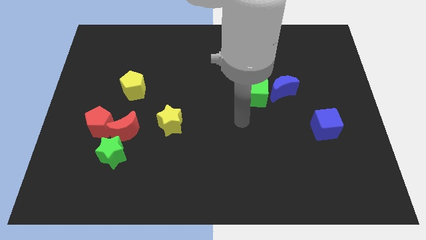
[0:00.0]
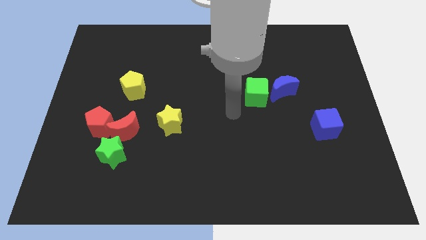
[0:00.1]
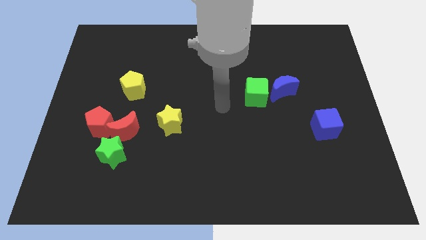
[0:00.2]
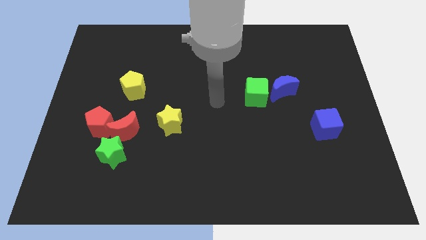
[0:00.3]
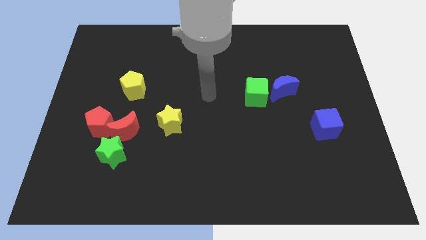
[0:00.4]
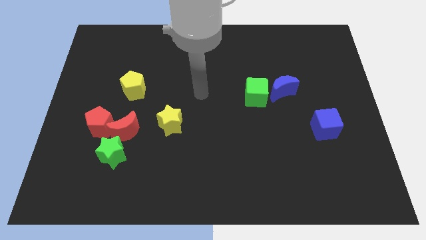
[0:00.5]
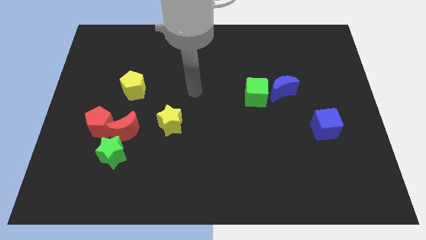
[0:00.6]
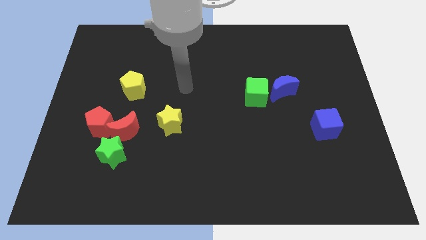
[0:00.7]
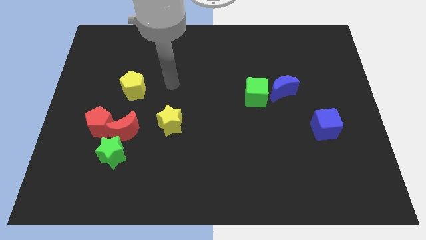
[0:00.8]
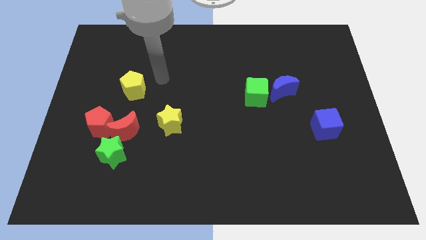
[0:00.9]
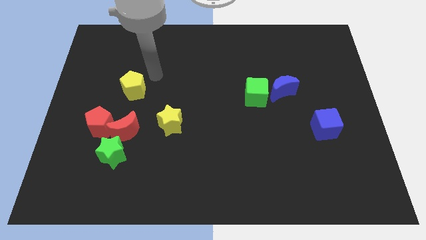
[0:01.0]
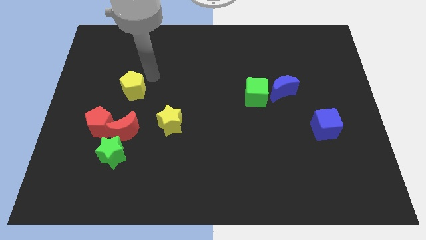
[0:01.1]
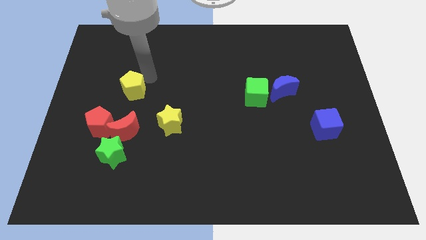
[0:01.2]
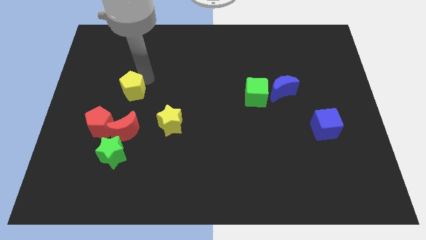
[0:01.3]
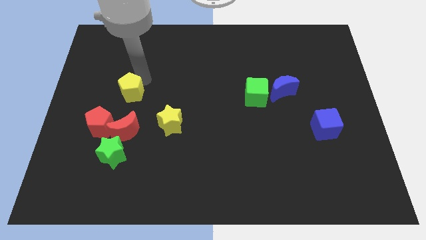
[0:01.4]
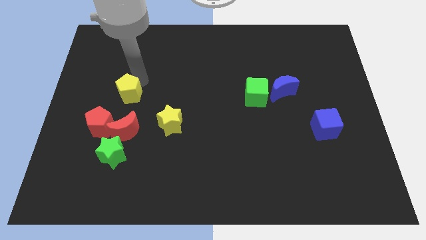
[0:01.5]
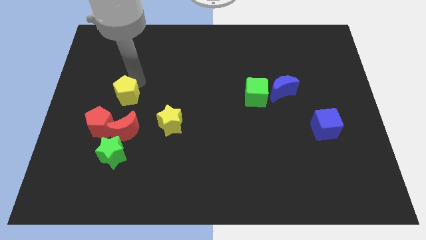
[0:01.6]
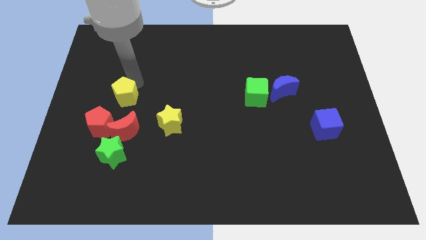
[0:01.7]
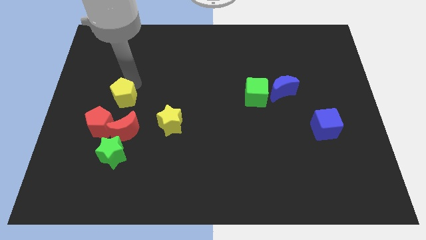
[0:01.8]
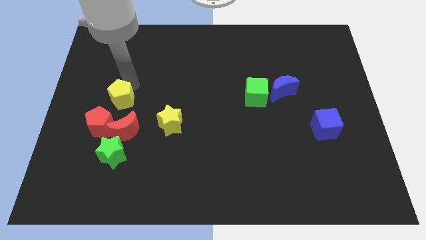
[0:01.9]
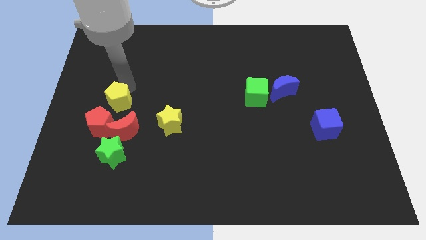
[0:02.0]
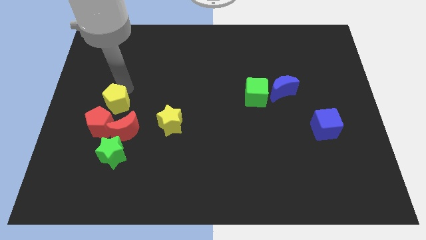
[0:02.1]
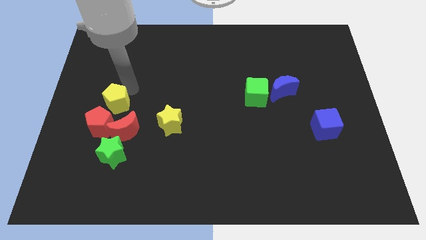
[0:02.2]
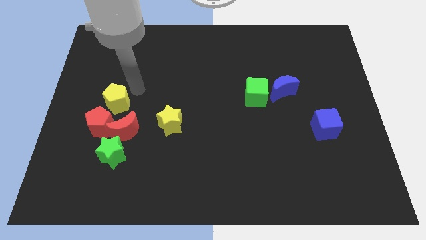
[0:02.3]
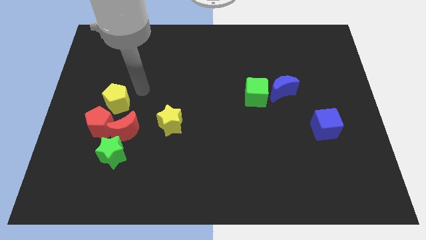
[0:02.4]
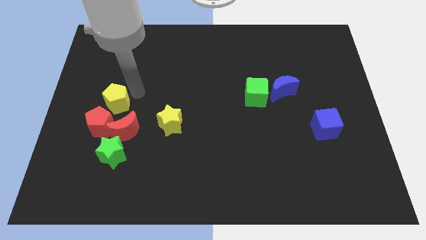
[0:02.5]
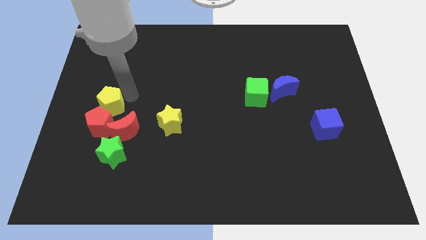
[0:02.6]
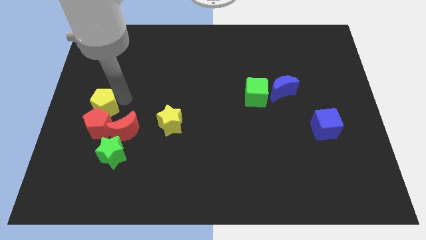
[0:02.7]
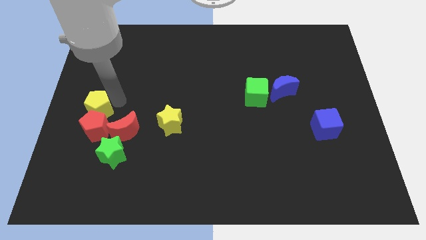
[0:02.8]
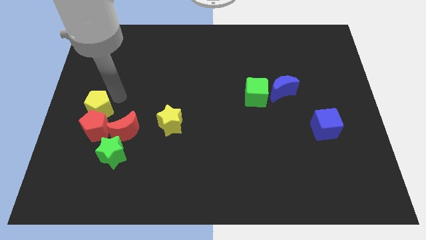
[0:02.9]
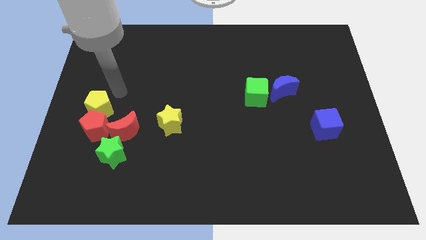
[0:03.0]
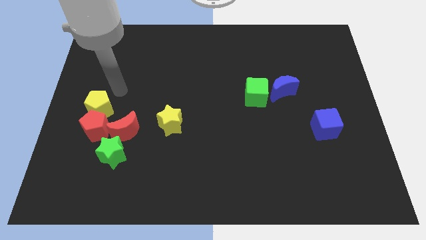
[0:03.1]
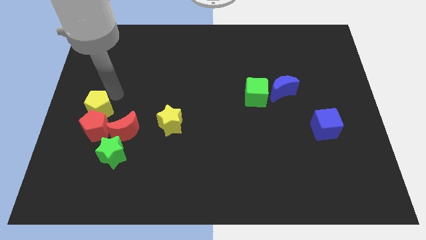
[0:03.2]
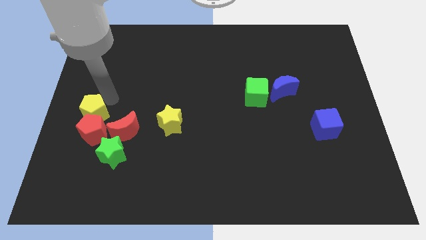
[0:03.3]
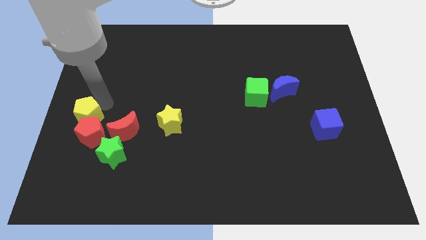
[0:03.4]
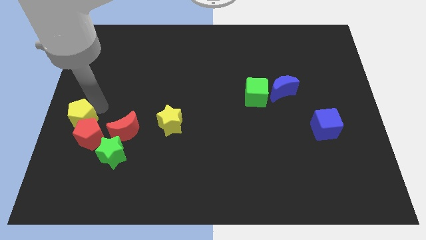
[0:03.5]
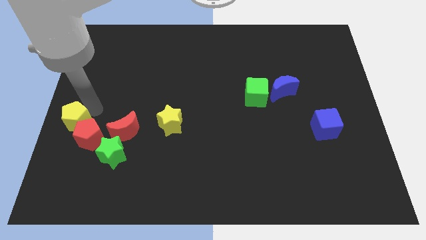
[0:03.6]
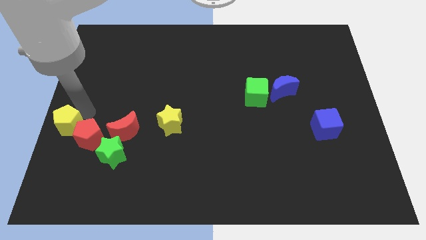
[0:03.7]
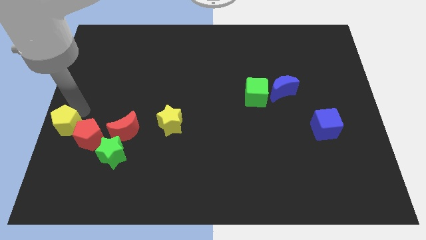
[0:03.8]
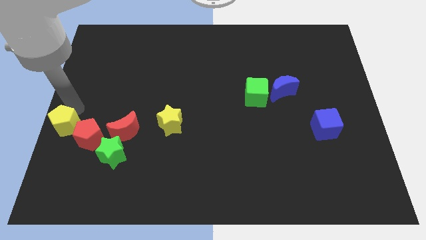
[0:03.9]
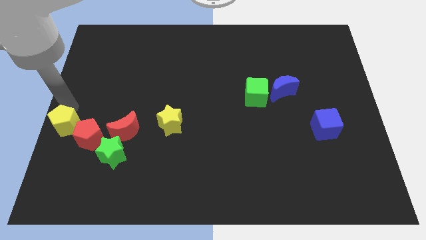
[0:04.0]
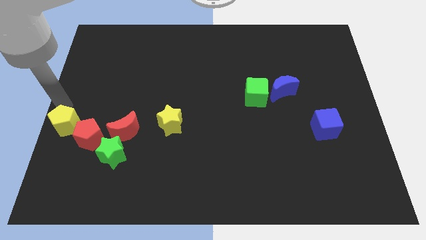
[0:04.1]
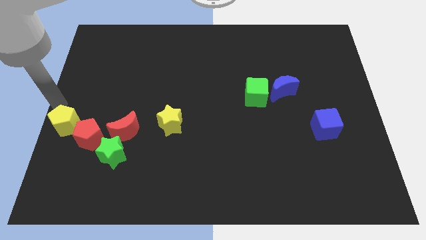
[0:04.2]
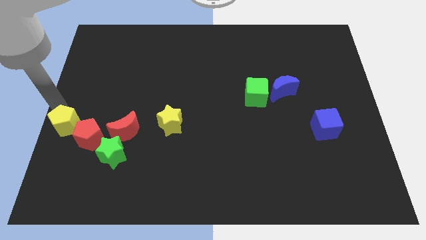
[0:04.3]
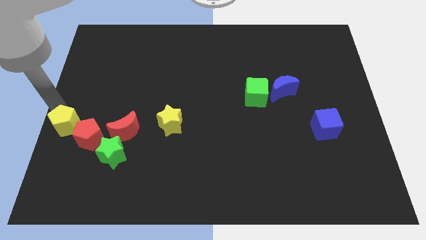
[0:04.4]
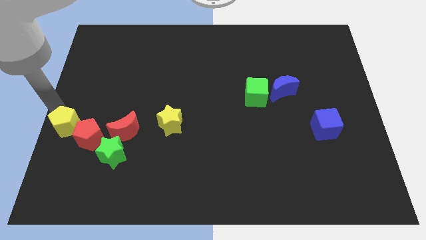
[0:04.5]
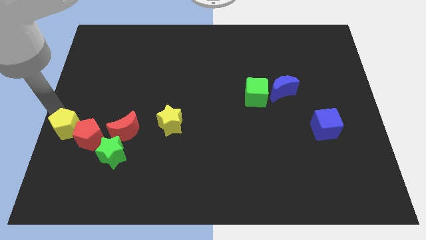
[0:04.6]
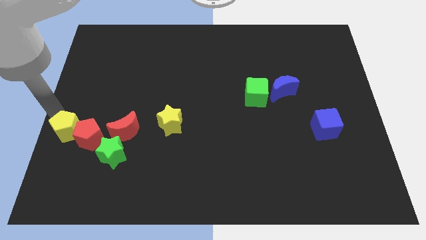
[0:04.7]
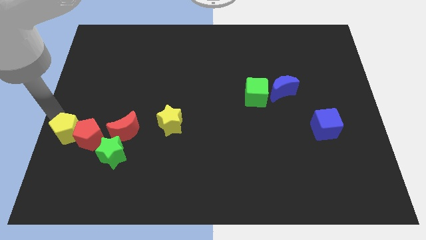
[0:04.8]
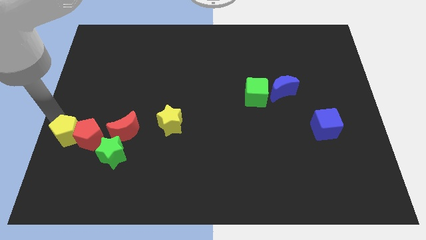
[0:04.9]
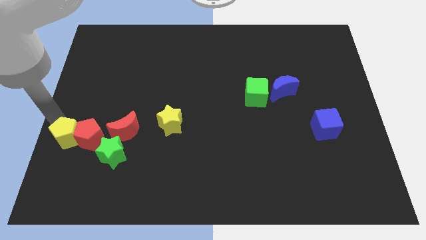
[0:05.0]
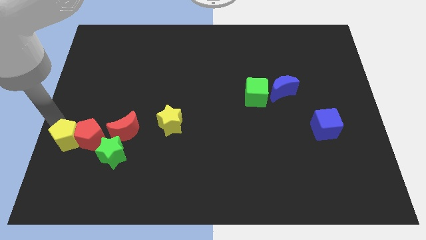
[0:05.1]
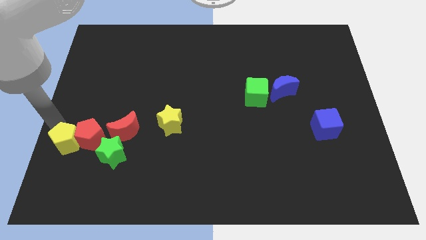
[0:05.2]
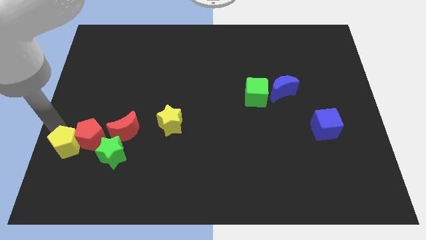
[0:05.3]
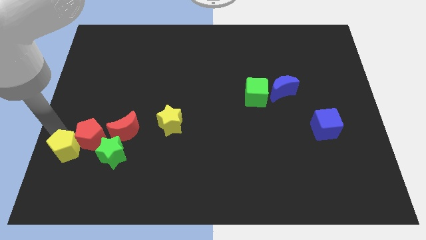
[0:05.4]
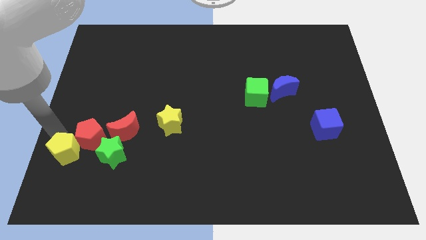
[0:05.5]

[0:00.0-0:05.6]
put the yellow pentagon below the red pentagon

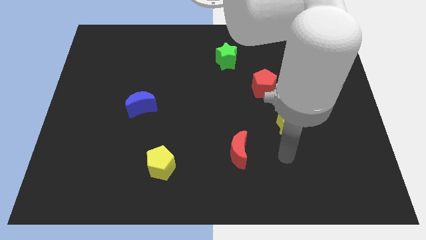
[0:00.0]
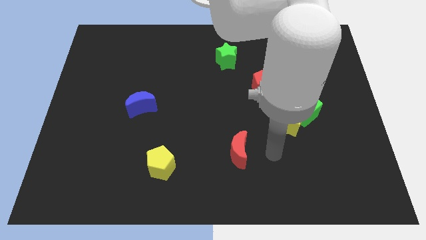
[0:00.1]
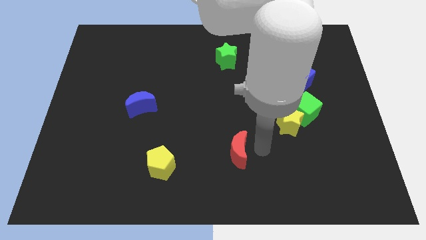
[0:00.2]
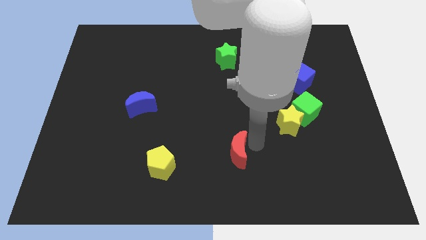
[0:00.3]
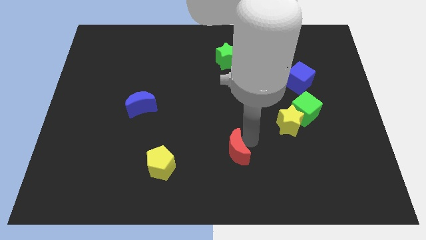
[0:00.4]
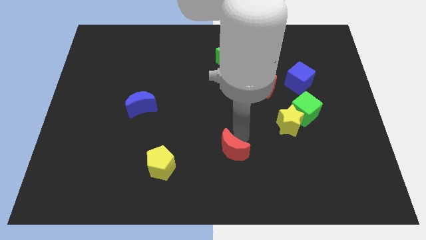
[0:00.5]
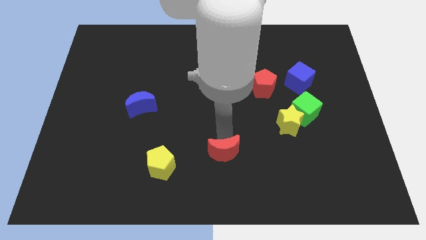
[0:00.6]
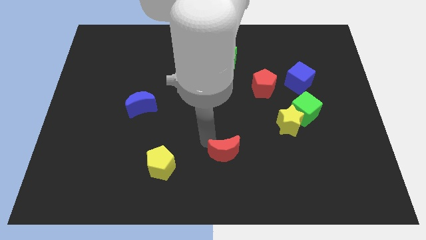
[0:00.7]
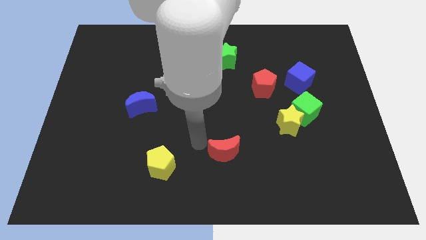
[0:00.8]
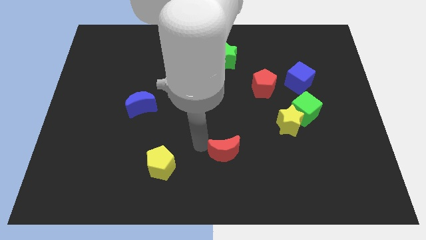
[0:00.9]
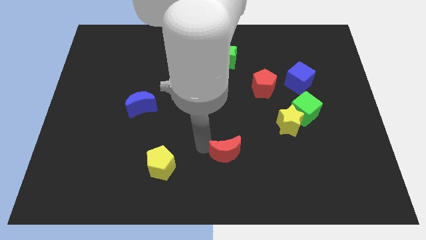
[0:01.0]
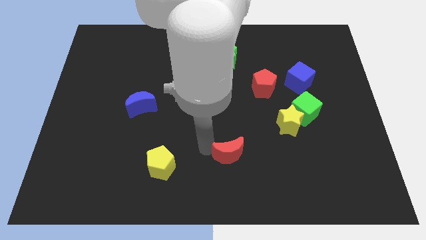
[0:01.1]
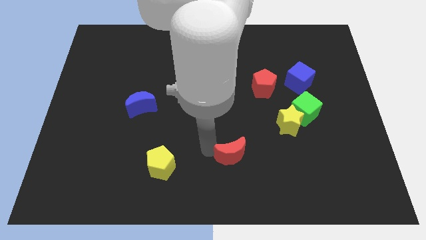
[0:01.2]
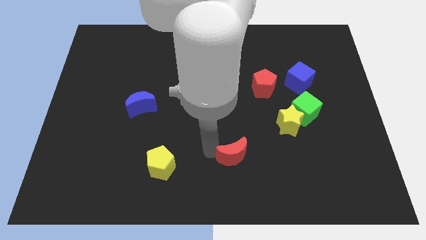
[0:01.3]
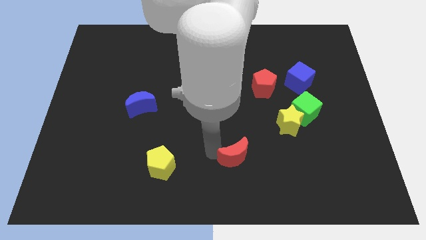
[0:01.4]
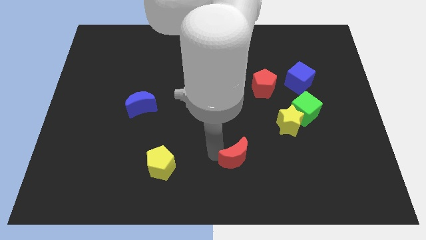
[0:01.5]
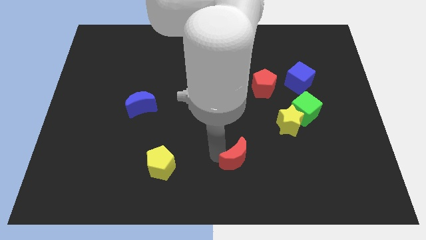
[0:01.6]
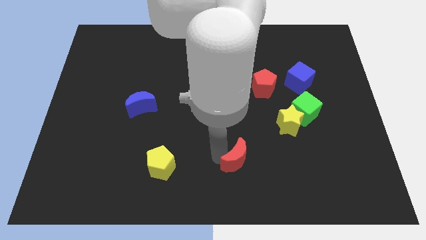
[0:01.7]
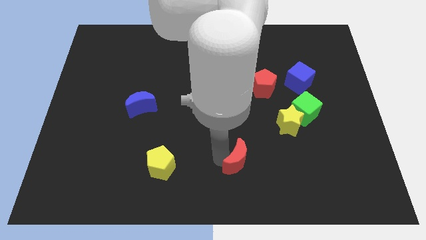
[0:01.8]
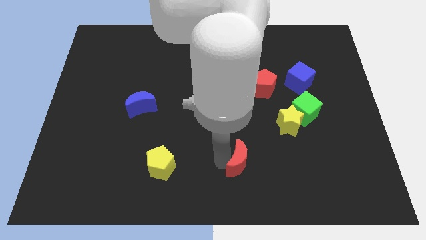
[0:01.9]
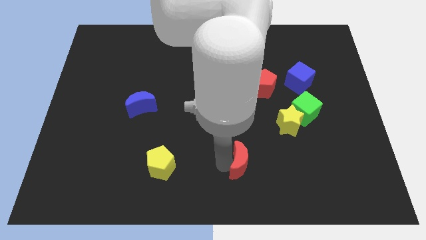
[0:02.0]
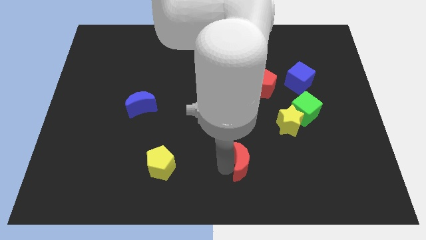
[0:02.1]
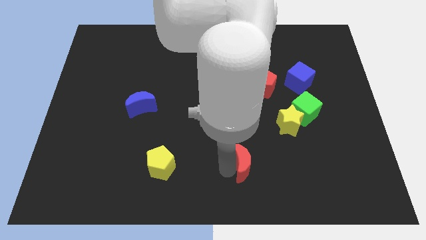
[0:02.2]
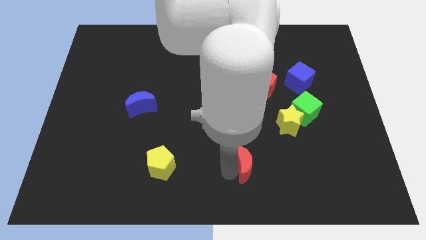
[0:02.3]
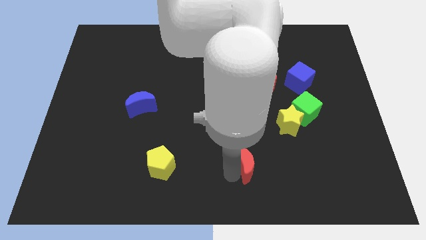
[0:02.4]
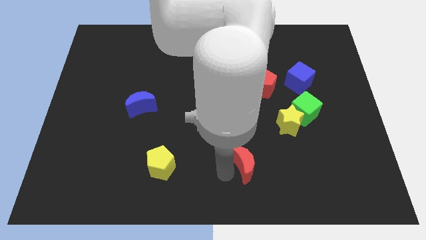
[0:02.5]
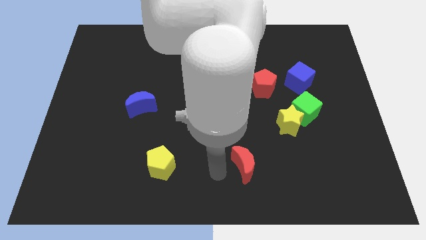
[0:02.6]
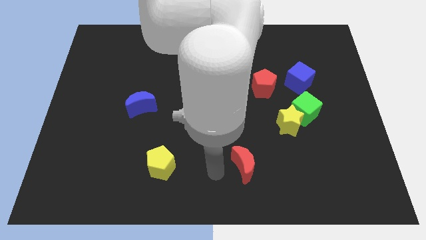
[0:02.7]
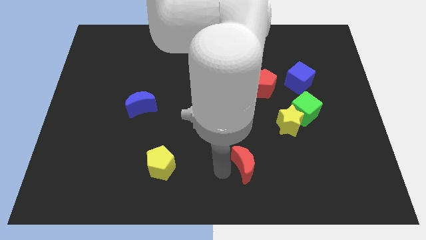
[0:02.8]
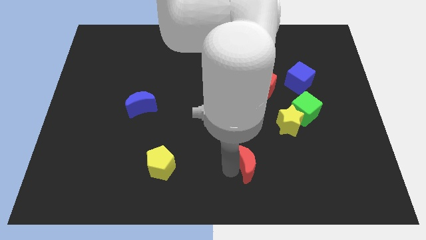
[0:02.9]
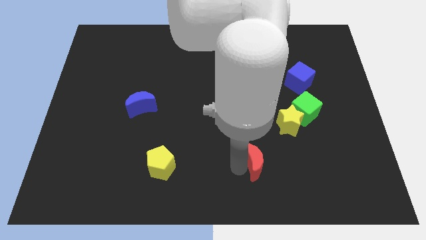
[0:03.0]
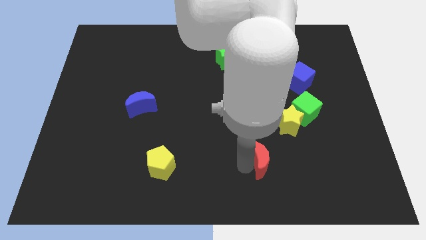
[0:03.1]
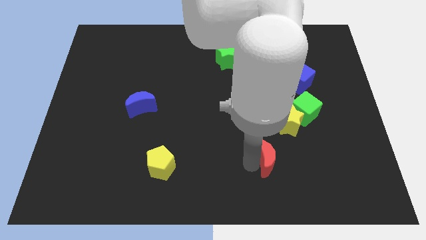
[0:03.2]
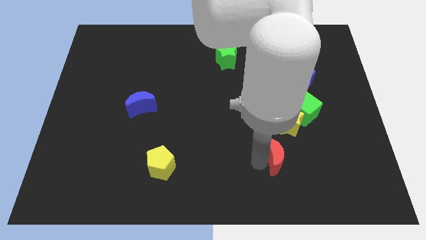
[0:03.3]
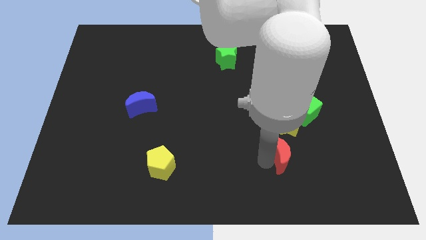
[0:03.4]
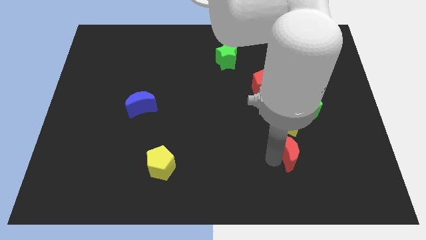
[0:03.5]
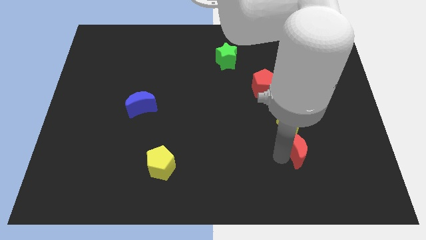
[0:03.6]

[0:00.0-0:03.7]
push the red moon below the green cube
